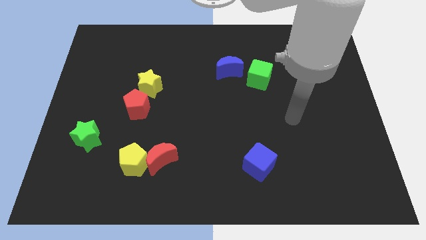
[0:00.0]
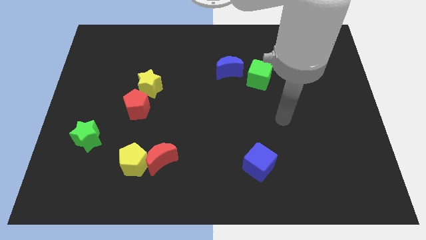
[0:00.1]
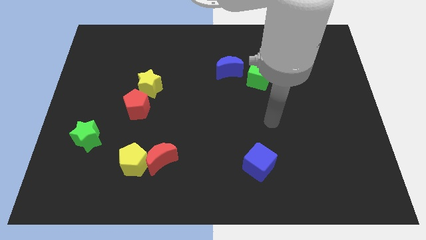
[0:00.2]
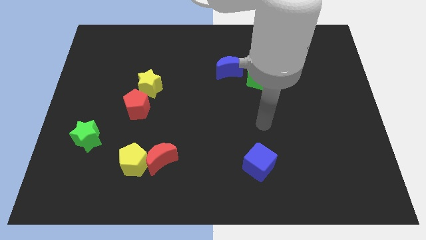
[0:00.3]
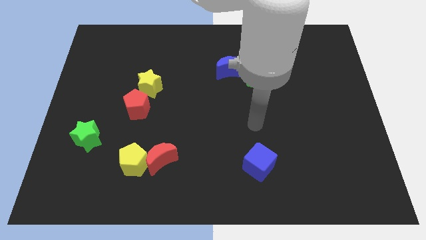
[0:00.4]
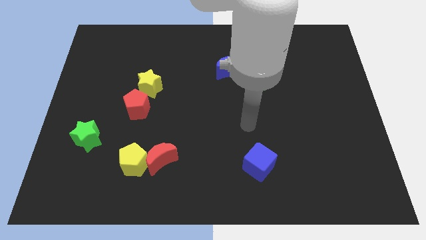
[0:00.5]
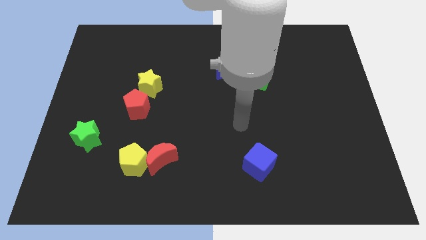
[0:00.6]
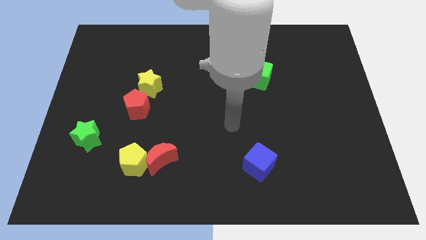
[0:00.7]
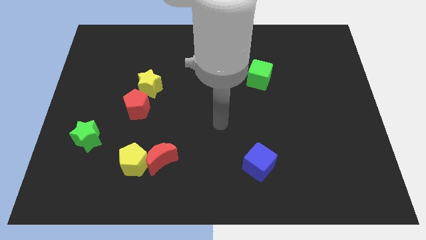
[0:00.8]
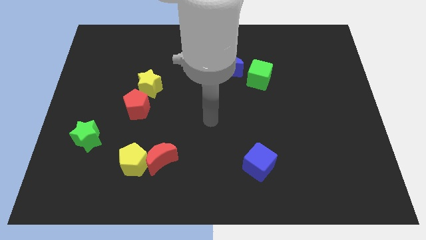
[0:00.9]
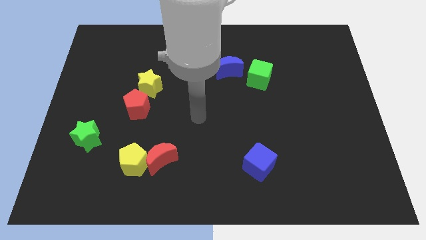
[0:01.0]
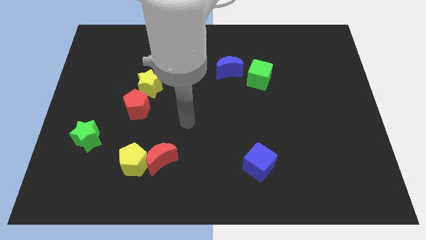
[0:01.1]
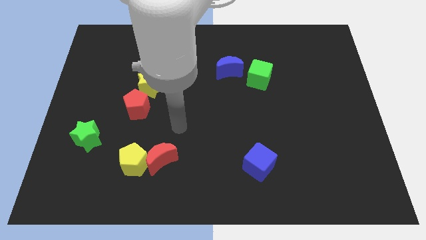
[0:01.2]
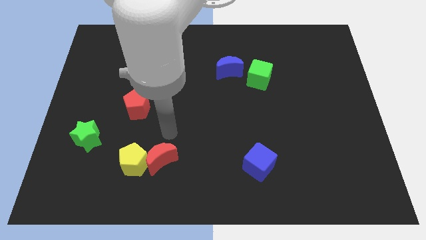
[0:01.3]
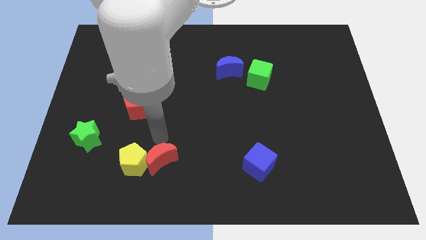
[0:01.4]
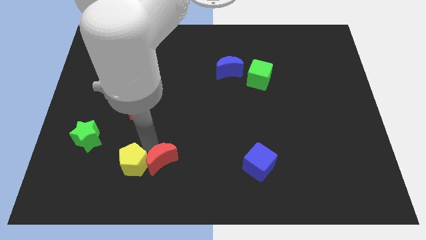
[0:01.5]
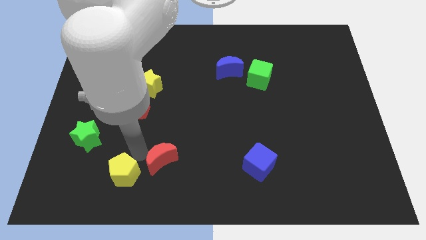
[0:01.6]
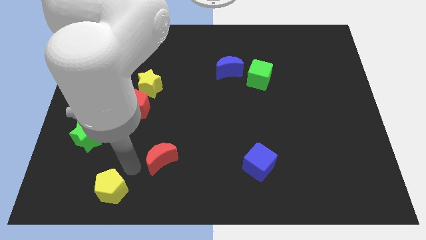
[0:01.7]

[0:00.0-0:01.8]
pull the red moon apart from the yellow pentagon

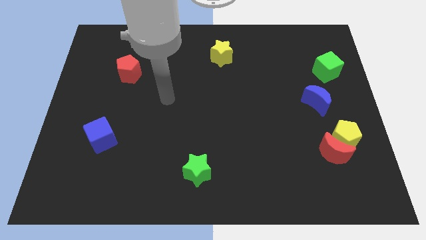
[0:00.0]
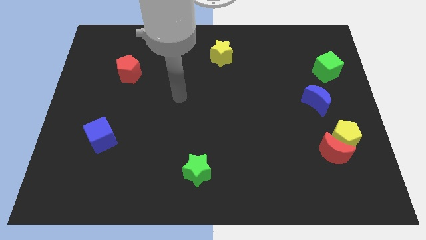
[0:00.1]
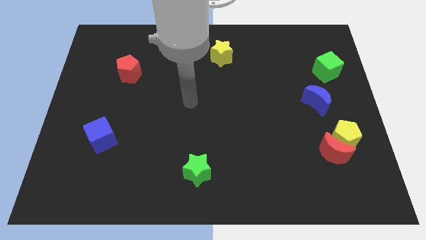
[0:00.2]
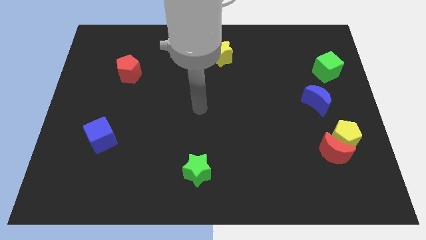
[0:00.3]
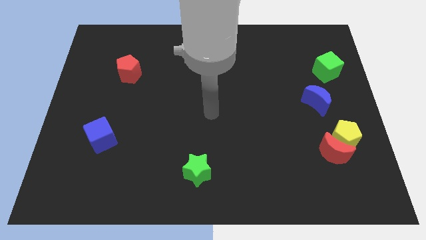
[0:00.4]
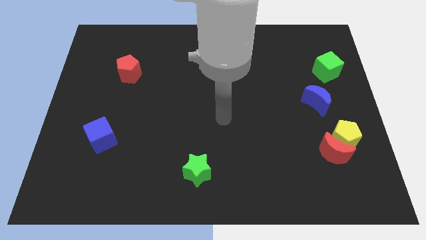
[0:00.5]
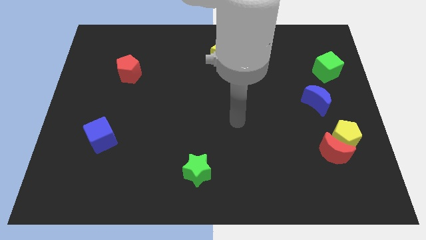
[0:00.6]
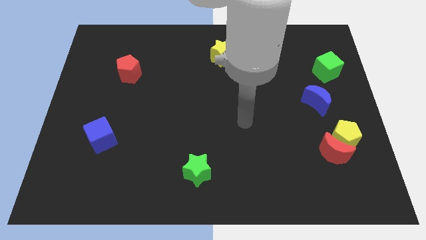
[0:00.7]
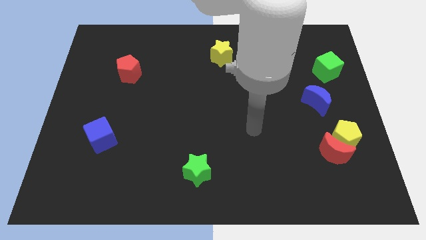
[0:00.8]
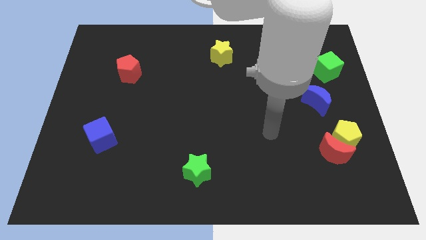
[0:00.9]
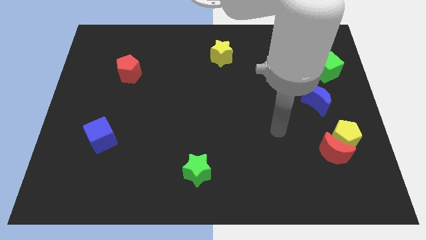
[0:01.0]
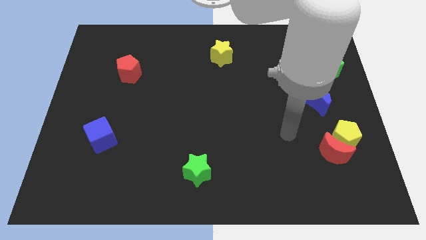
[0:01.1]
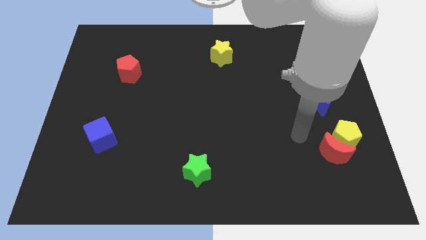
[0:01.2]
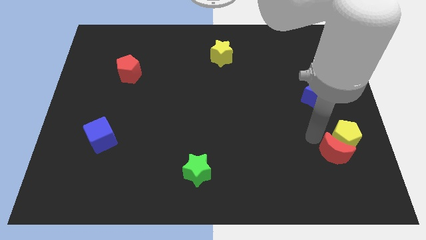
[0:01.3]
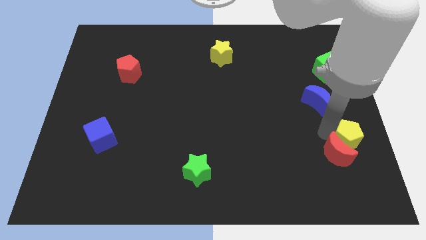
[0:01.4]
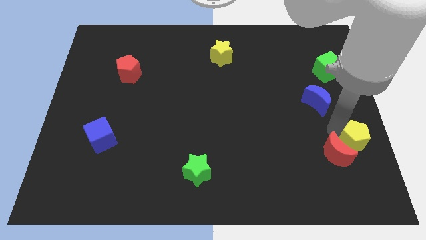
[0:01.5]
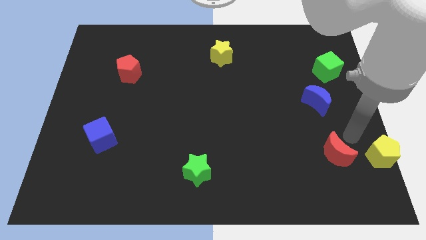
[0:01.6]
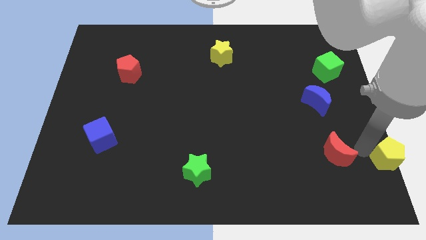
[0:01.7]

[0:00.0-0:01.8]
separate the red moon from the yellow pentagon

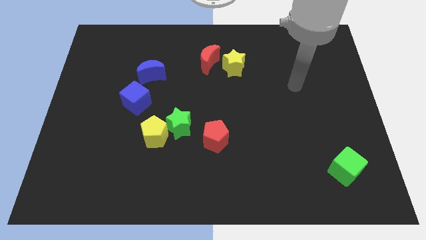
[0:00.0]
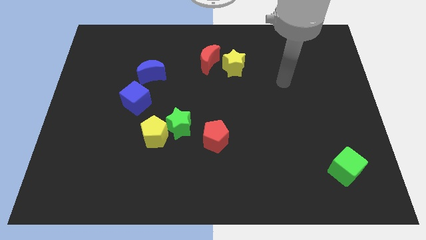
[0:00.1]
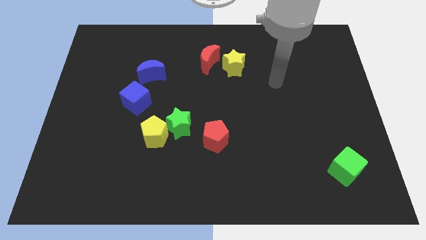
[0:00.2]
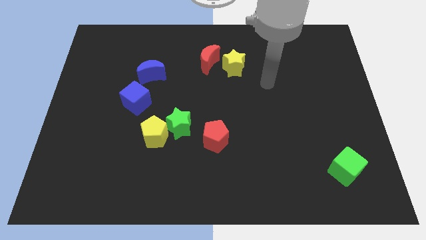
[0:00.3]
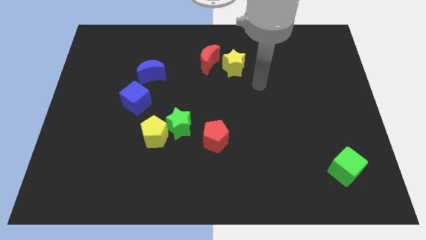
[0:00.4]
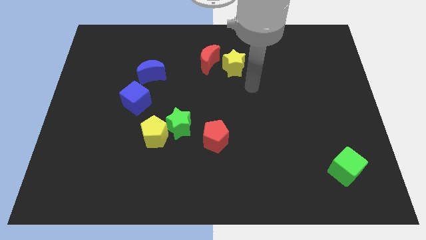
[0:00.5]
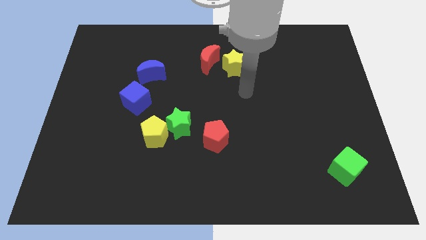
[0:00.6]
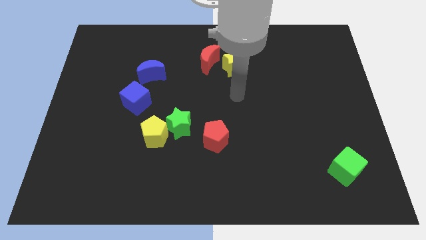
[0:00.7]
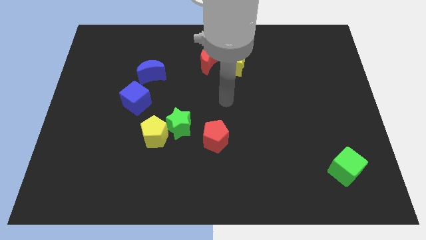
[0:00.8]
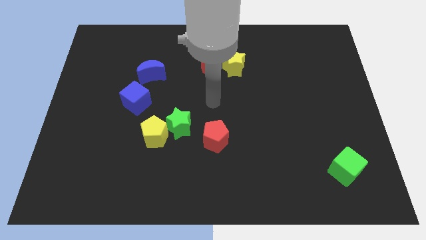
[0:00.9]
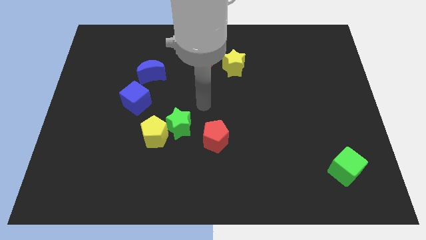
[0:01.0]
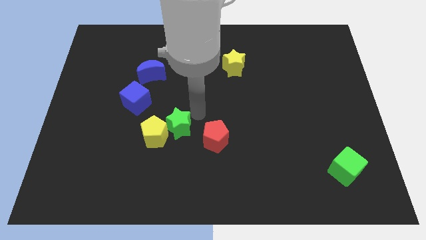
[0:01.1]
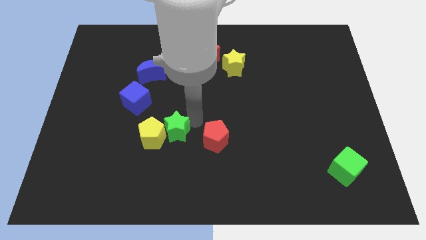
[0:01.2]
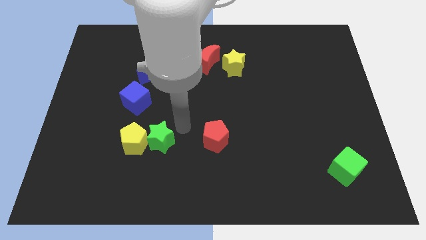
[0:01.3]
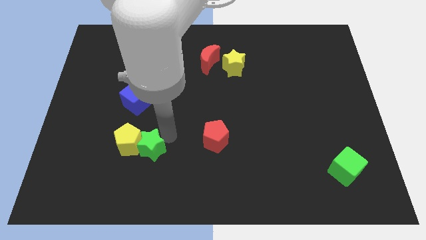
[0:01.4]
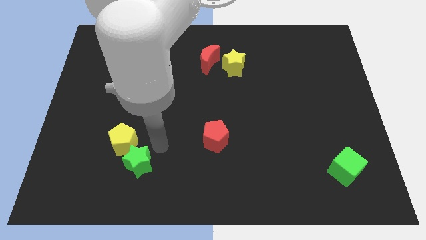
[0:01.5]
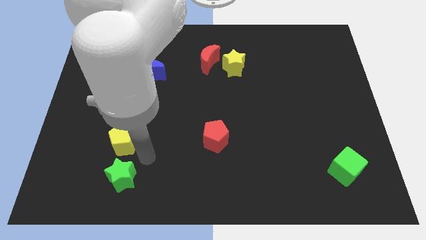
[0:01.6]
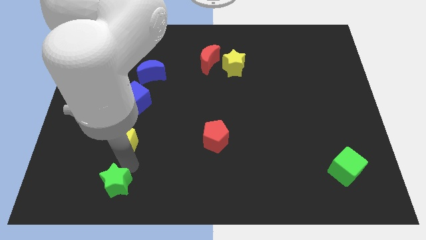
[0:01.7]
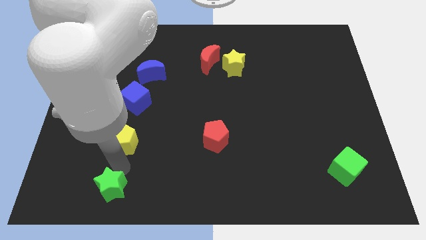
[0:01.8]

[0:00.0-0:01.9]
move the yellow pentagon away from the green star

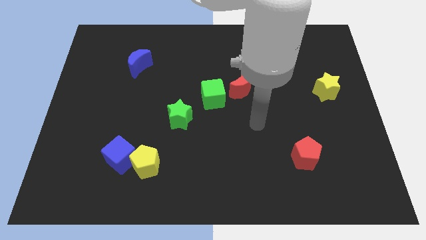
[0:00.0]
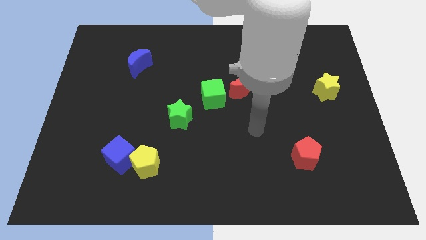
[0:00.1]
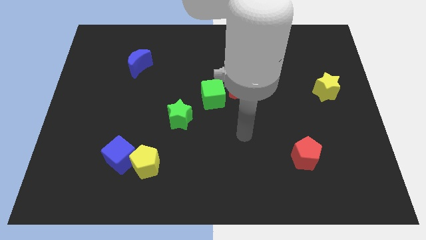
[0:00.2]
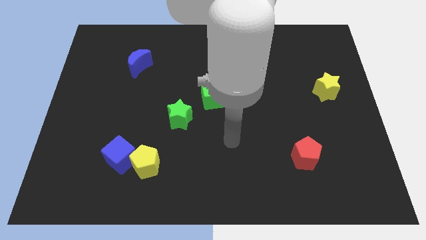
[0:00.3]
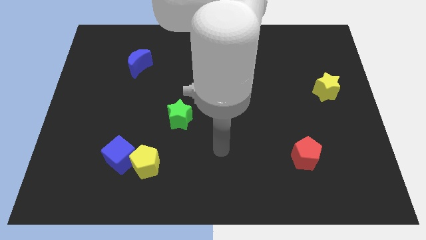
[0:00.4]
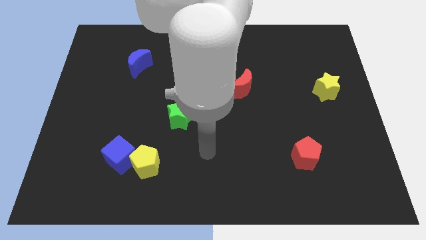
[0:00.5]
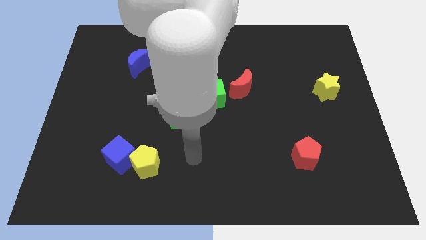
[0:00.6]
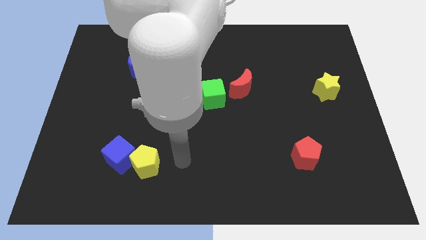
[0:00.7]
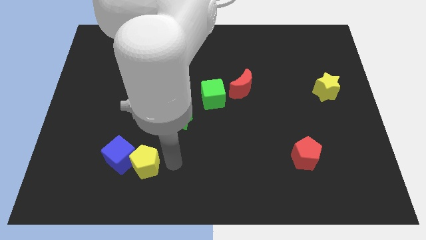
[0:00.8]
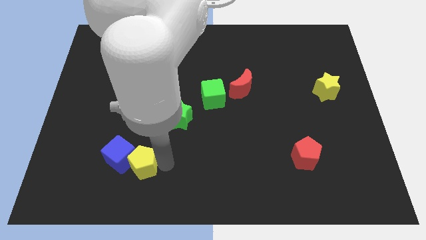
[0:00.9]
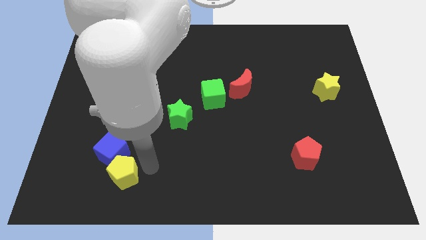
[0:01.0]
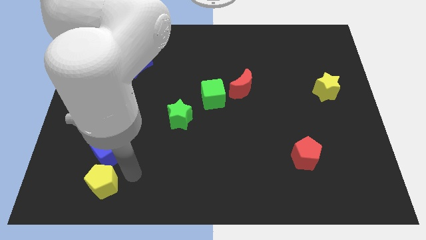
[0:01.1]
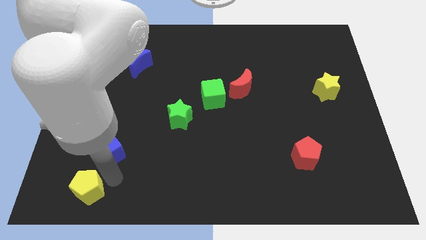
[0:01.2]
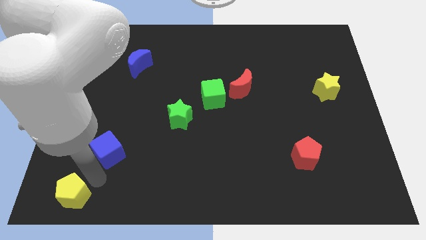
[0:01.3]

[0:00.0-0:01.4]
separate the blue cube from the yellow pentagon

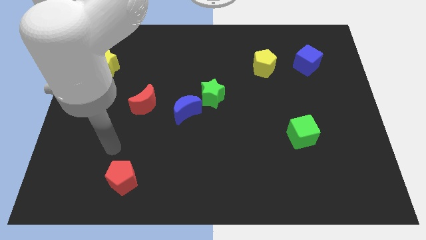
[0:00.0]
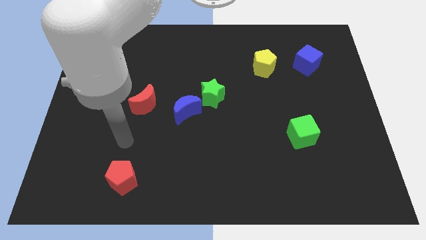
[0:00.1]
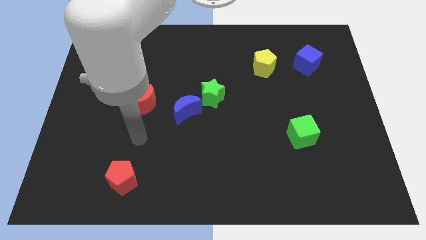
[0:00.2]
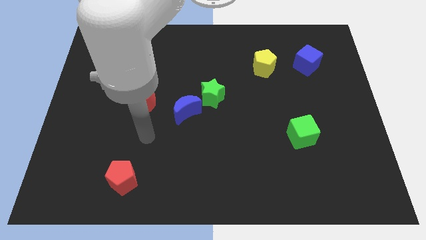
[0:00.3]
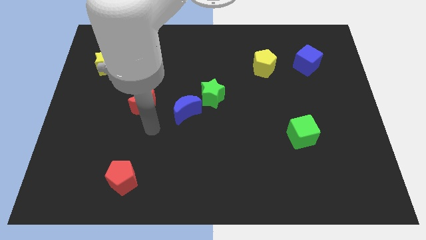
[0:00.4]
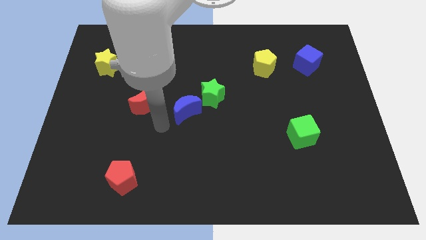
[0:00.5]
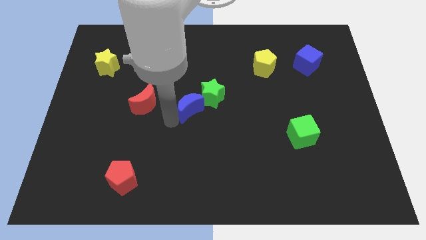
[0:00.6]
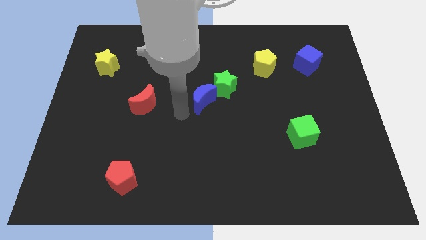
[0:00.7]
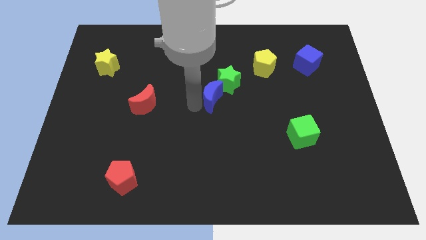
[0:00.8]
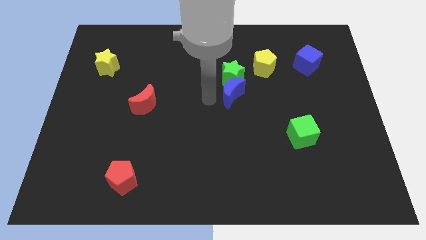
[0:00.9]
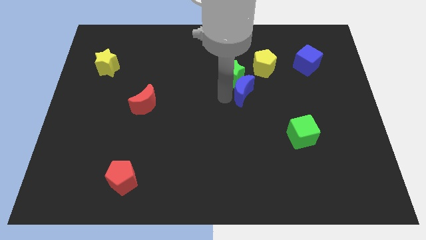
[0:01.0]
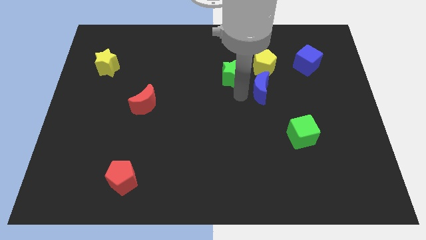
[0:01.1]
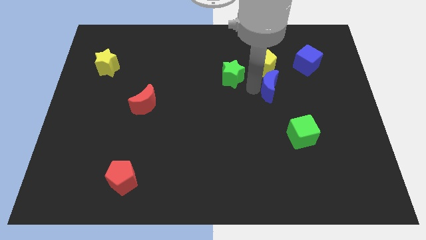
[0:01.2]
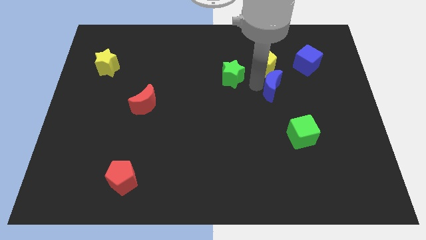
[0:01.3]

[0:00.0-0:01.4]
pull the green star apart from the blue moon

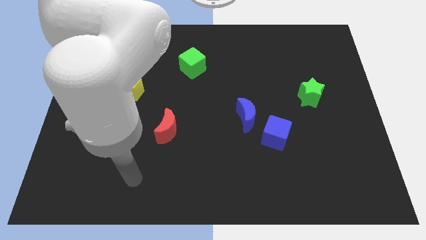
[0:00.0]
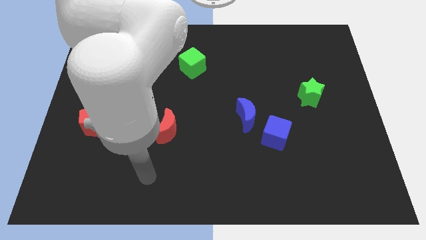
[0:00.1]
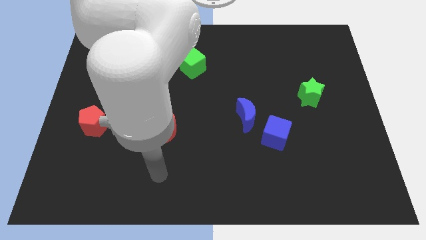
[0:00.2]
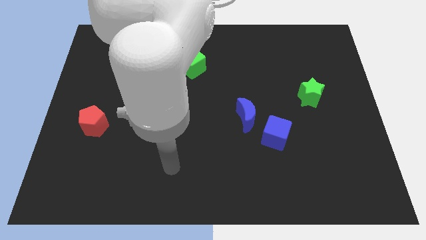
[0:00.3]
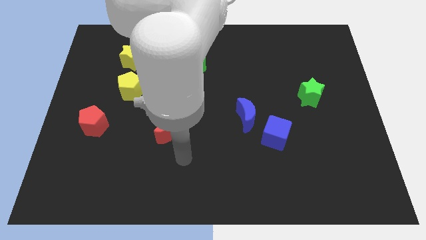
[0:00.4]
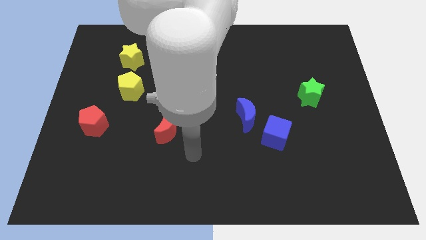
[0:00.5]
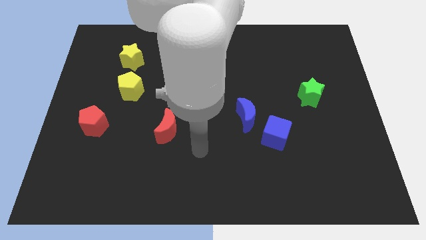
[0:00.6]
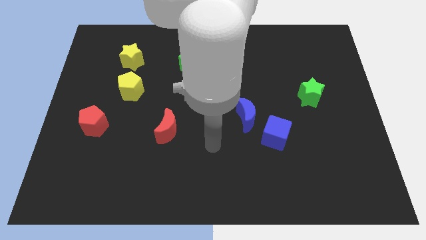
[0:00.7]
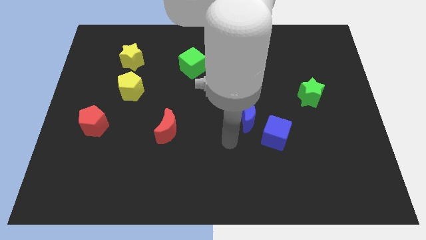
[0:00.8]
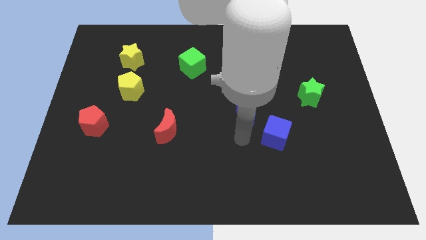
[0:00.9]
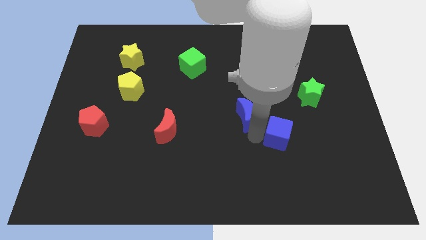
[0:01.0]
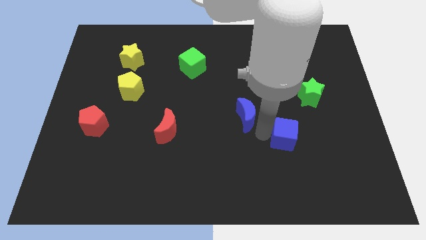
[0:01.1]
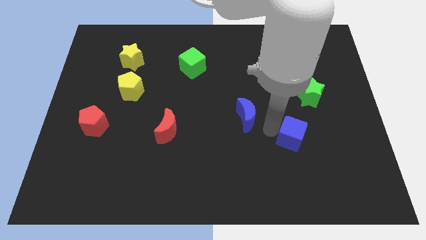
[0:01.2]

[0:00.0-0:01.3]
separate the blue moon from the blue cube
